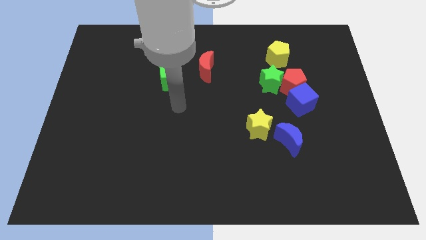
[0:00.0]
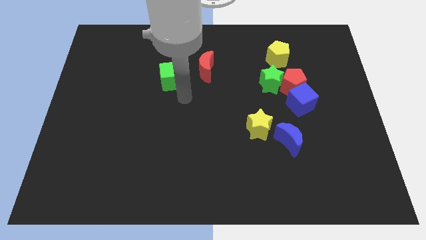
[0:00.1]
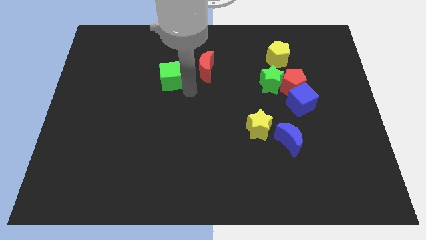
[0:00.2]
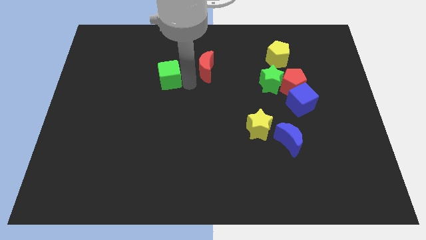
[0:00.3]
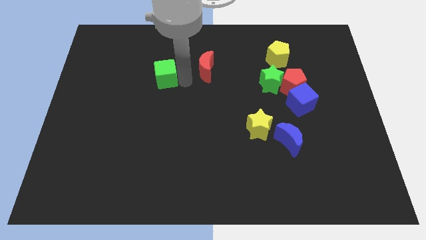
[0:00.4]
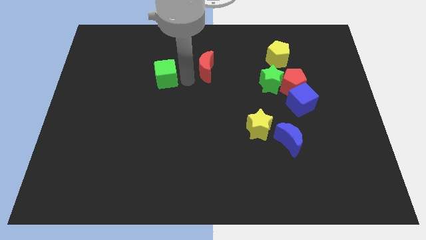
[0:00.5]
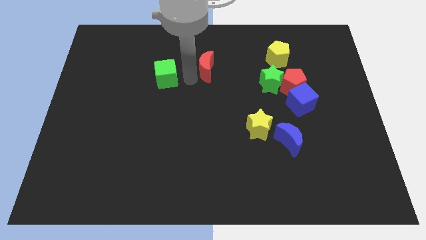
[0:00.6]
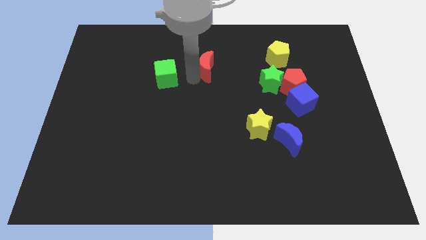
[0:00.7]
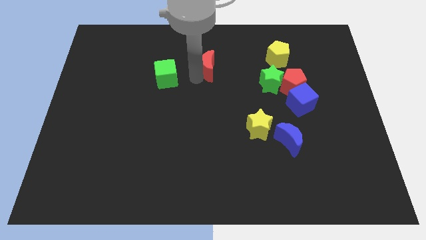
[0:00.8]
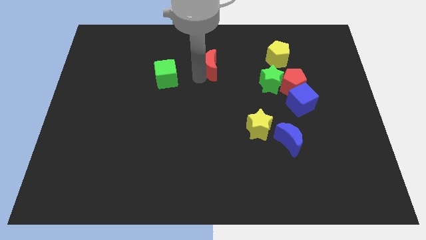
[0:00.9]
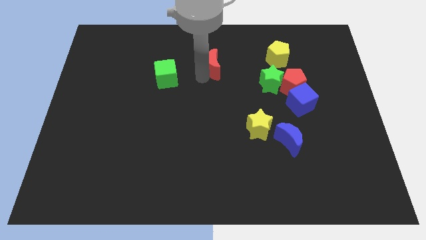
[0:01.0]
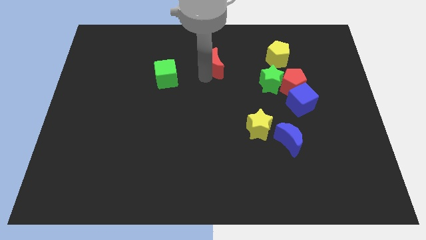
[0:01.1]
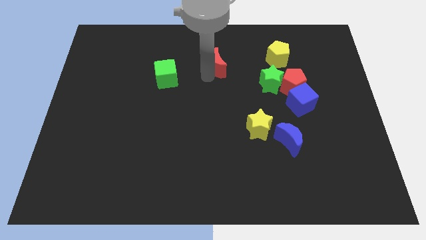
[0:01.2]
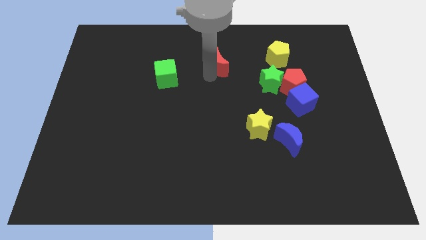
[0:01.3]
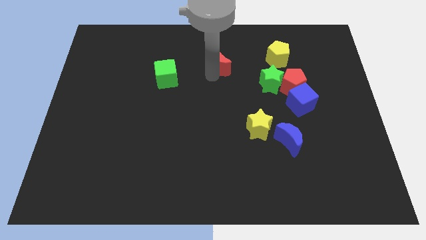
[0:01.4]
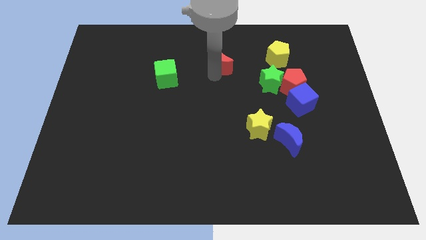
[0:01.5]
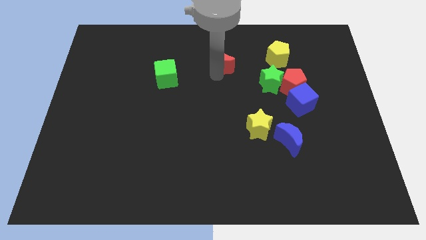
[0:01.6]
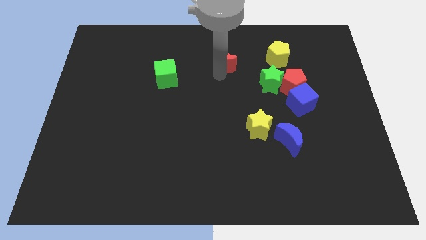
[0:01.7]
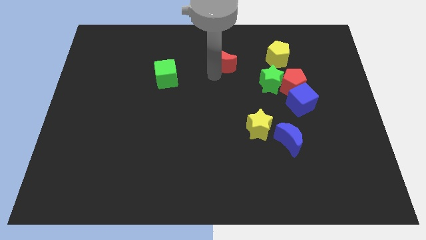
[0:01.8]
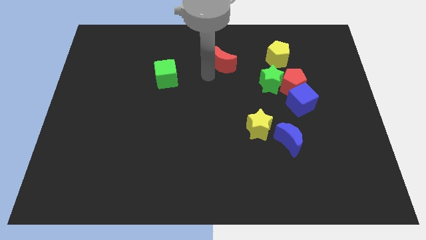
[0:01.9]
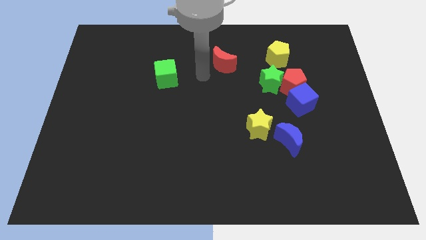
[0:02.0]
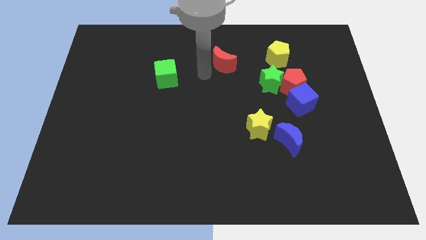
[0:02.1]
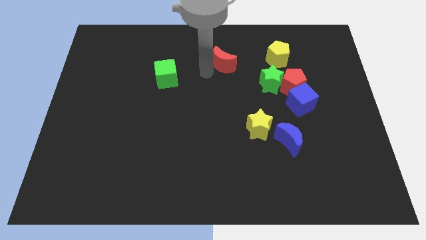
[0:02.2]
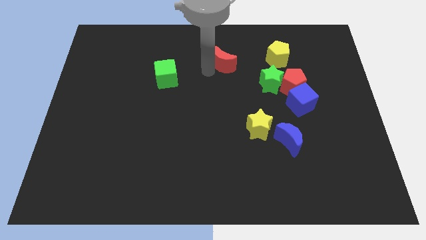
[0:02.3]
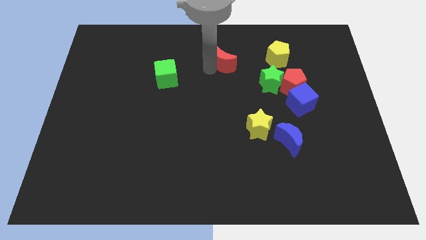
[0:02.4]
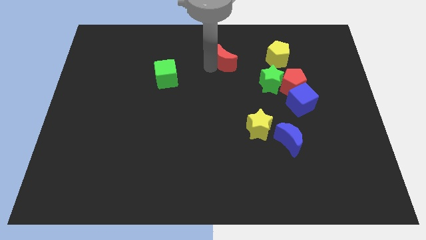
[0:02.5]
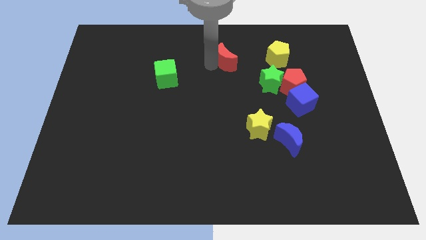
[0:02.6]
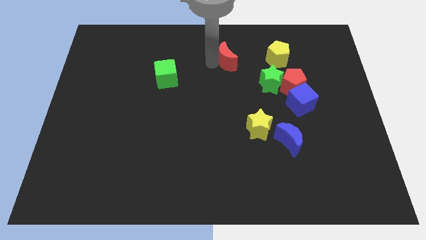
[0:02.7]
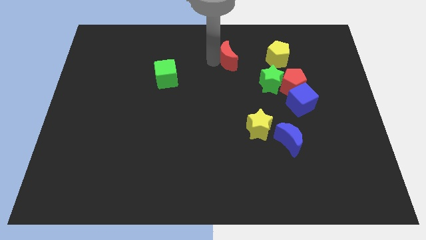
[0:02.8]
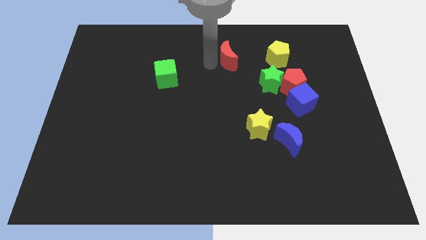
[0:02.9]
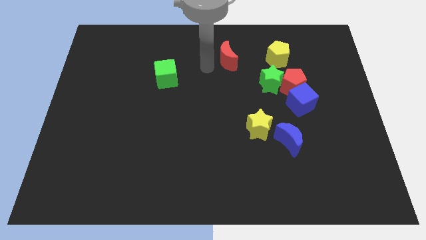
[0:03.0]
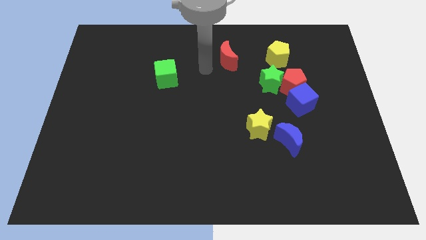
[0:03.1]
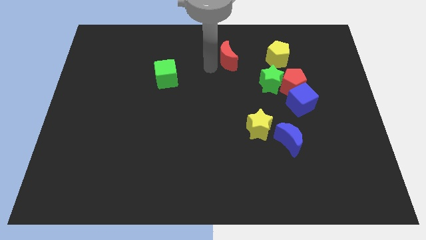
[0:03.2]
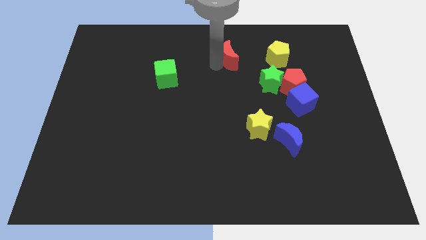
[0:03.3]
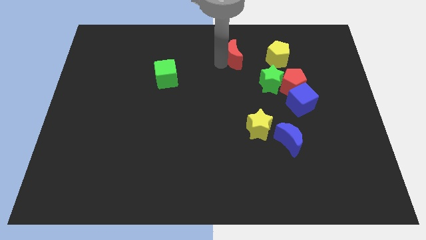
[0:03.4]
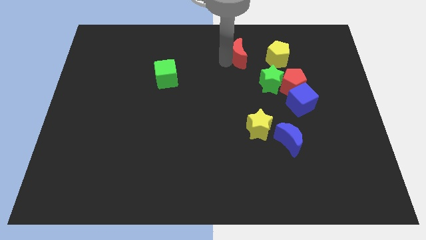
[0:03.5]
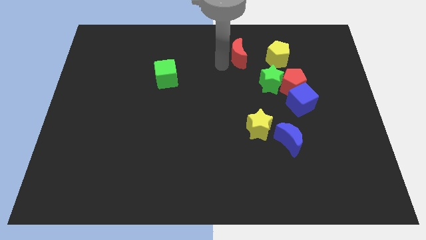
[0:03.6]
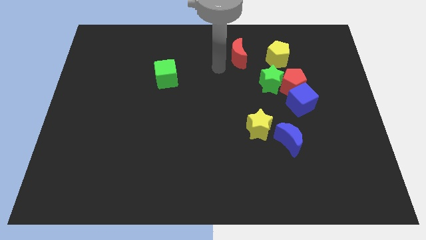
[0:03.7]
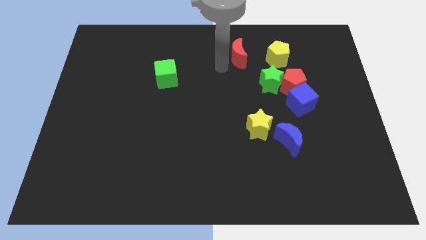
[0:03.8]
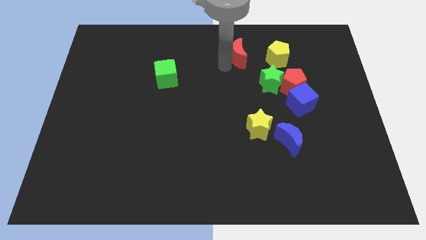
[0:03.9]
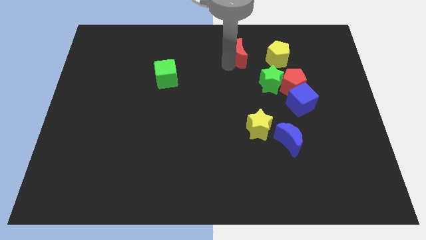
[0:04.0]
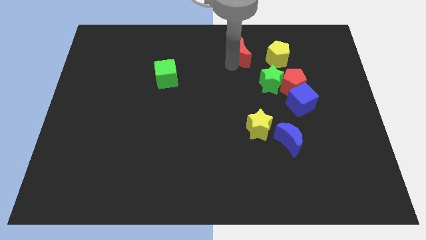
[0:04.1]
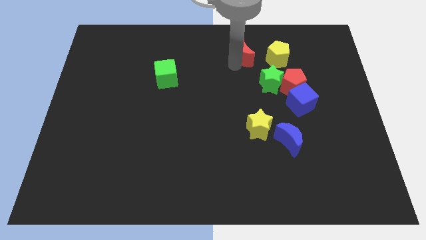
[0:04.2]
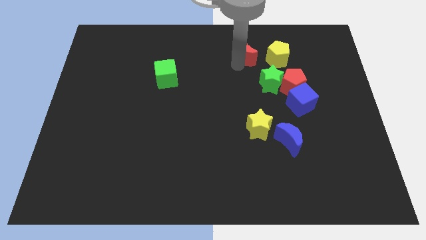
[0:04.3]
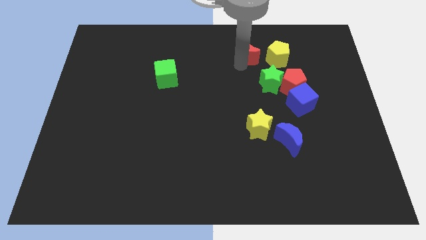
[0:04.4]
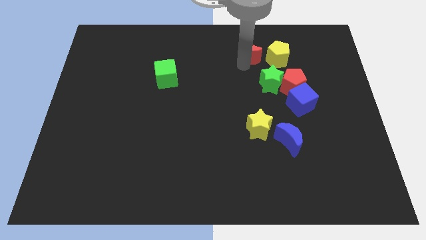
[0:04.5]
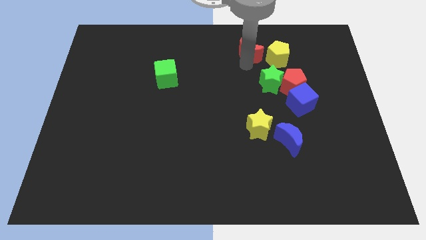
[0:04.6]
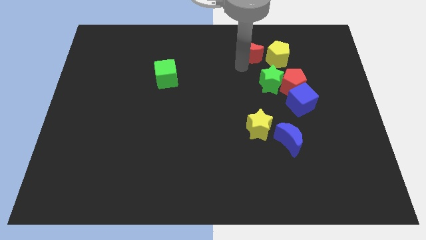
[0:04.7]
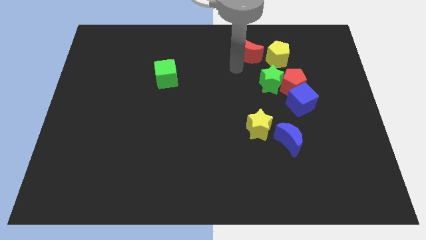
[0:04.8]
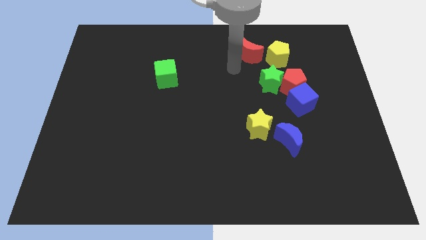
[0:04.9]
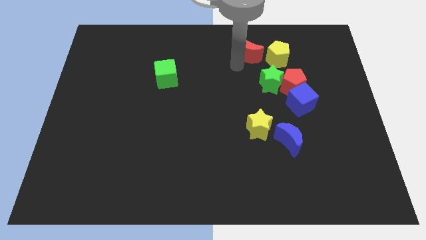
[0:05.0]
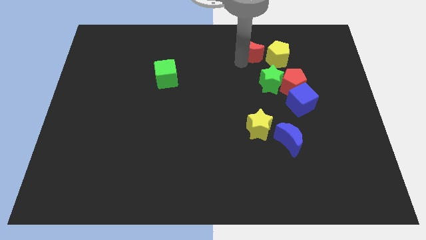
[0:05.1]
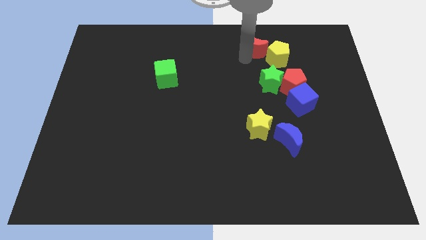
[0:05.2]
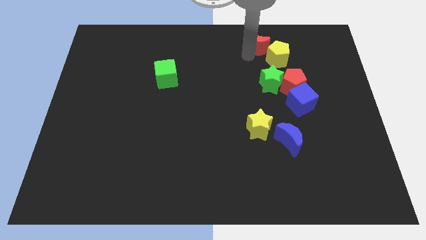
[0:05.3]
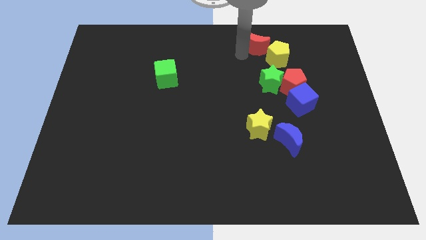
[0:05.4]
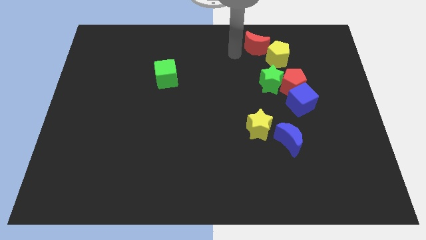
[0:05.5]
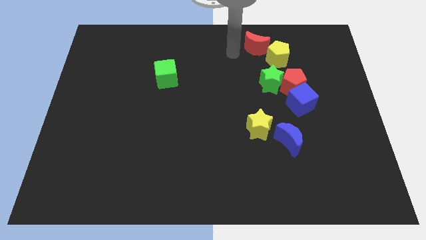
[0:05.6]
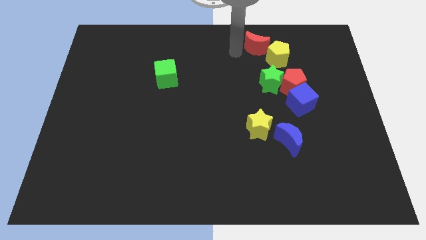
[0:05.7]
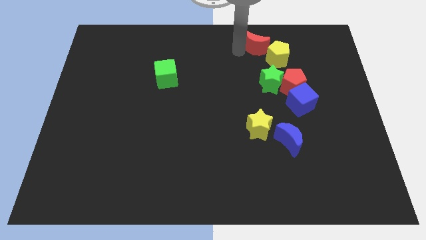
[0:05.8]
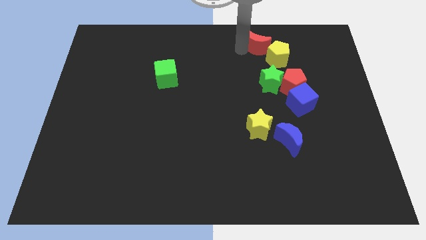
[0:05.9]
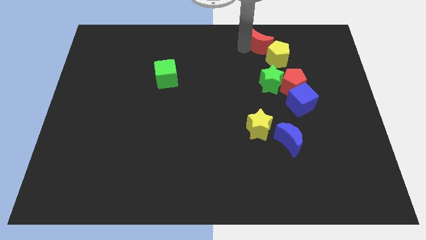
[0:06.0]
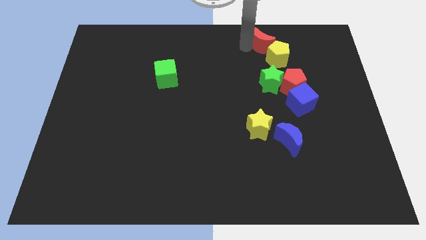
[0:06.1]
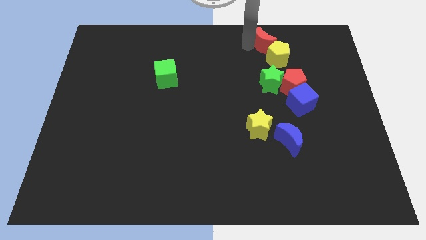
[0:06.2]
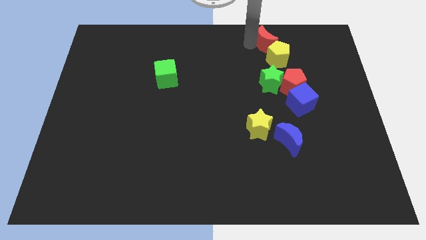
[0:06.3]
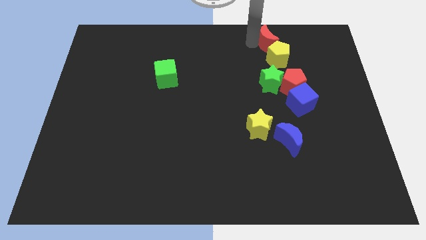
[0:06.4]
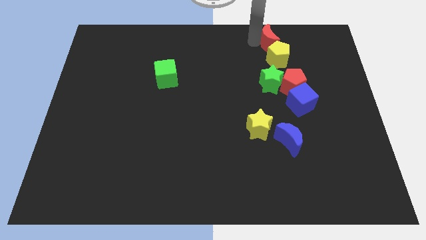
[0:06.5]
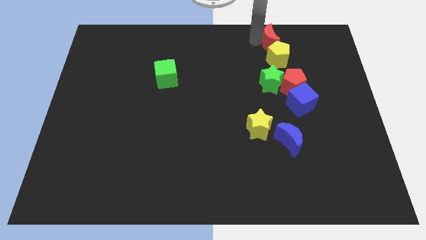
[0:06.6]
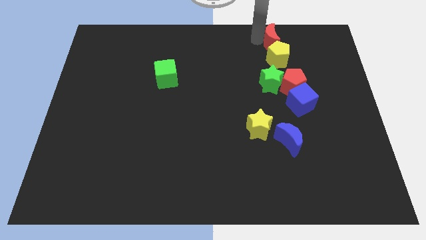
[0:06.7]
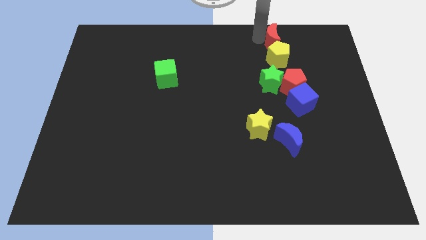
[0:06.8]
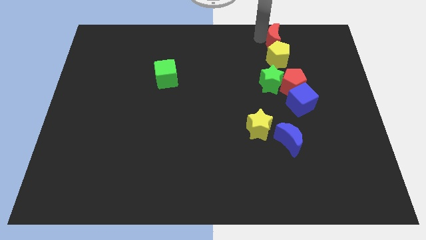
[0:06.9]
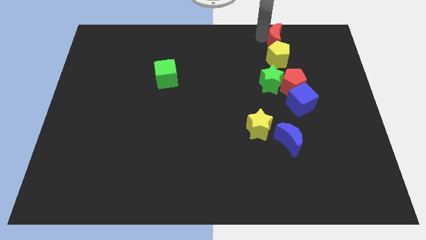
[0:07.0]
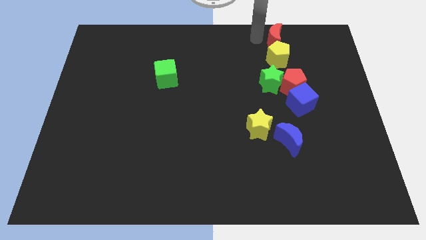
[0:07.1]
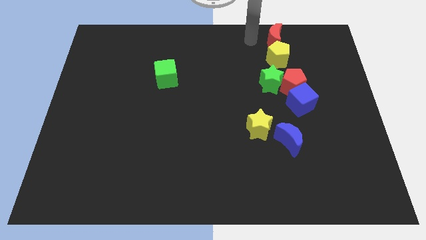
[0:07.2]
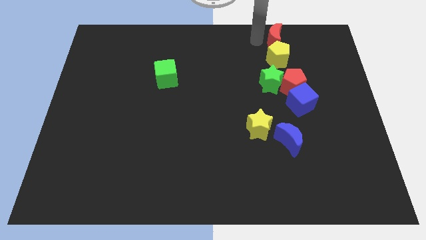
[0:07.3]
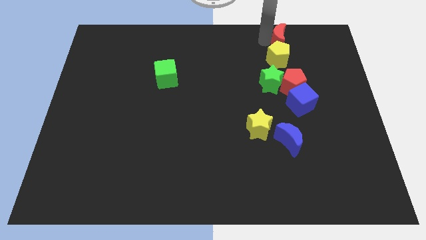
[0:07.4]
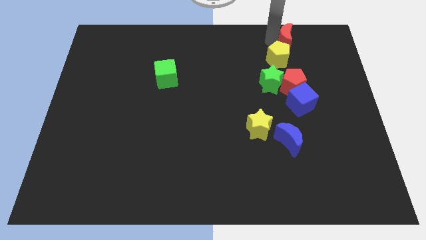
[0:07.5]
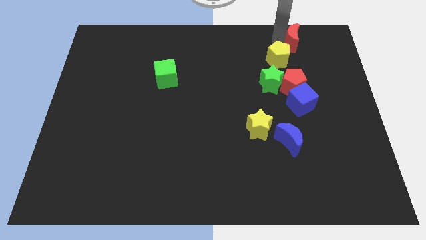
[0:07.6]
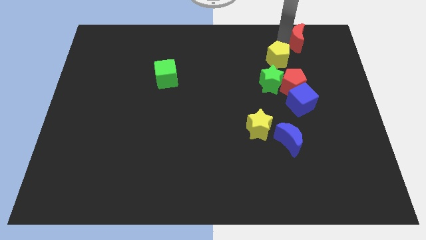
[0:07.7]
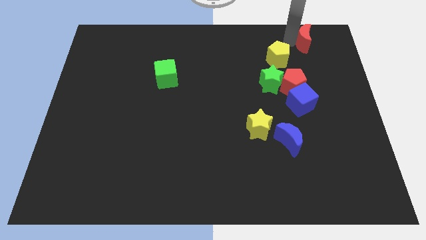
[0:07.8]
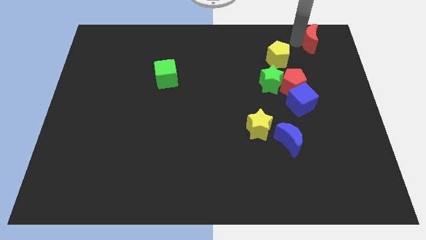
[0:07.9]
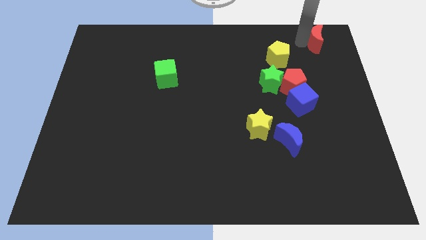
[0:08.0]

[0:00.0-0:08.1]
put the red moon to the top right corner
